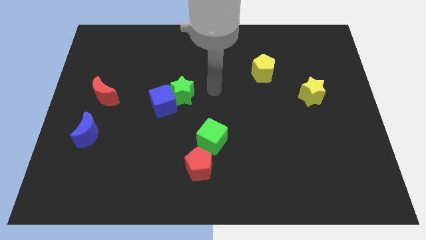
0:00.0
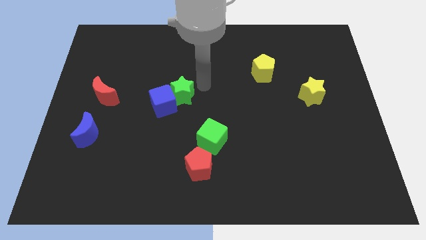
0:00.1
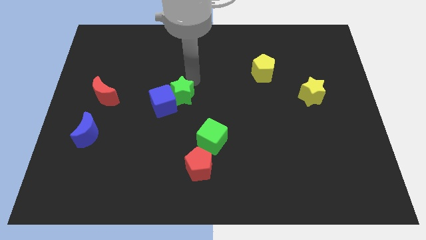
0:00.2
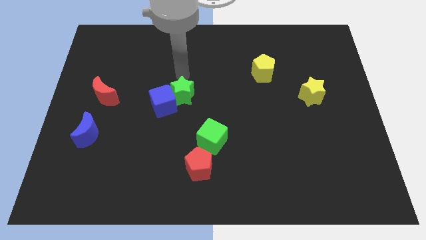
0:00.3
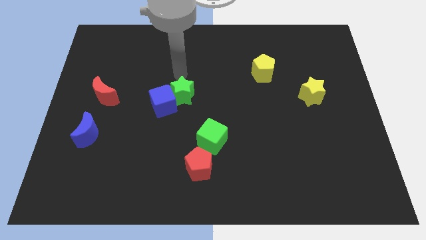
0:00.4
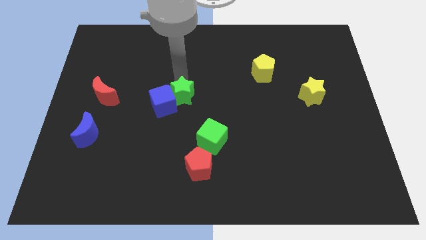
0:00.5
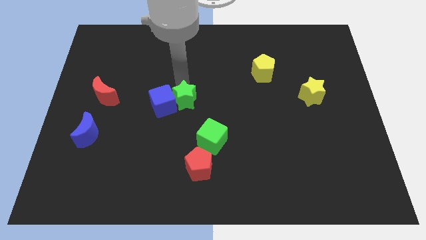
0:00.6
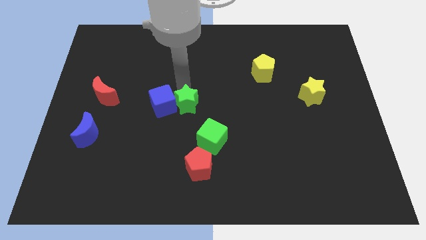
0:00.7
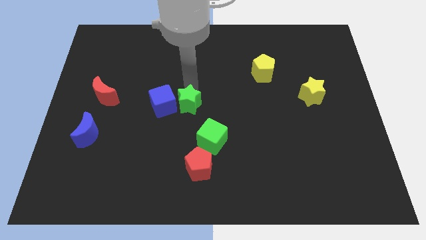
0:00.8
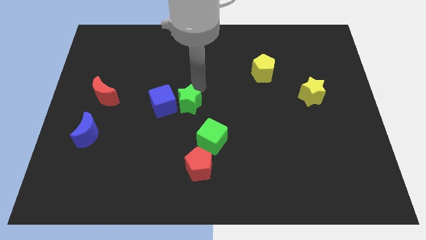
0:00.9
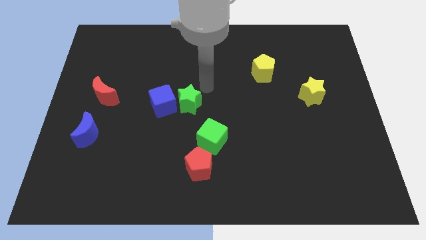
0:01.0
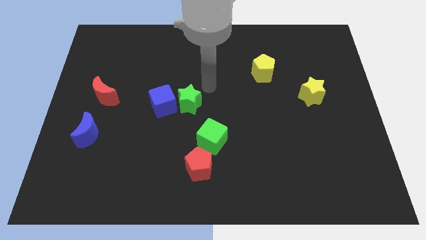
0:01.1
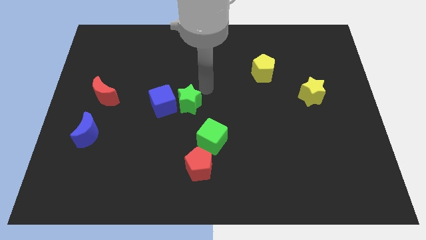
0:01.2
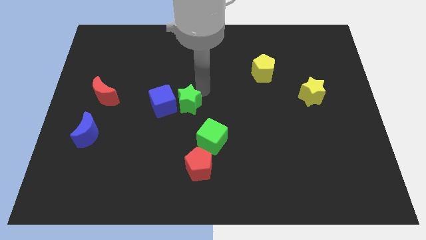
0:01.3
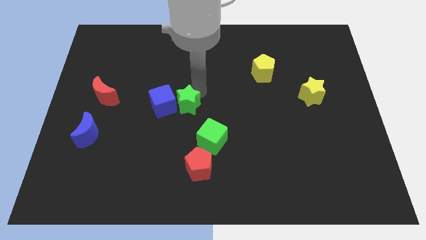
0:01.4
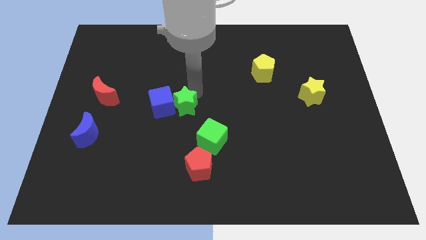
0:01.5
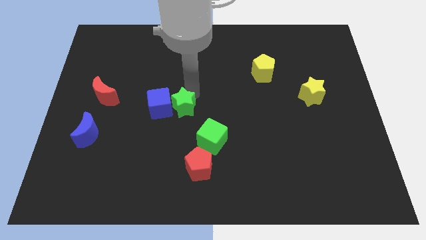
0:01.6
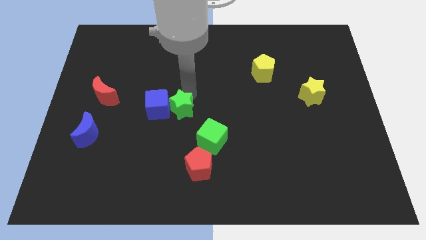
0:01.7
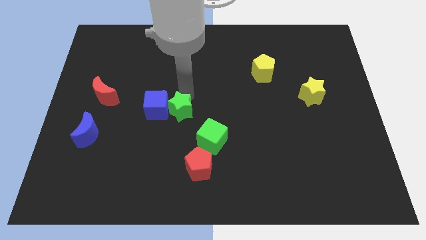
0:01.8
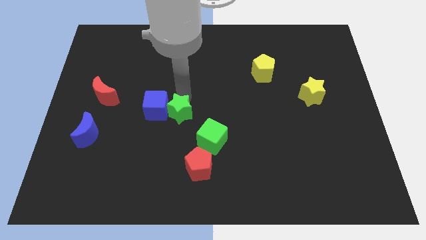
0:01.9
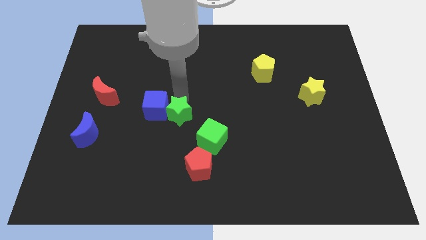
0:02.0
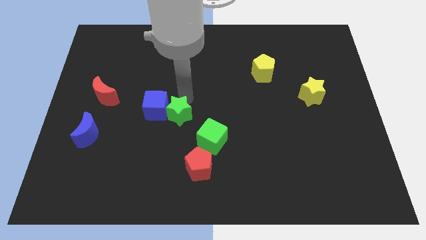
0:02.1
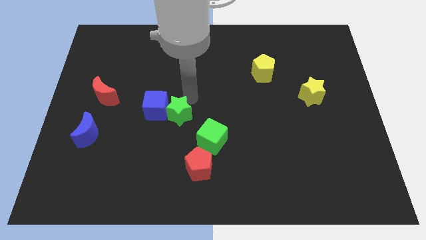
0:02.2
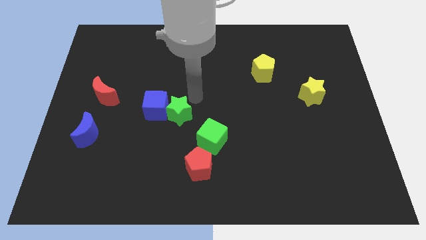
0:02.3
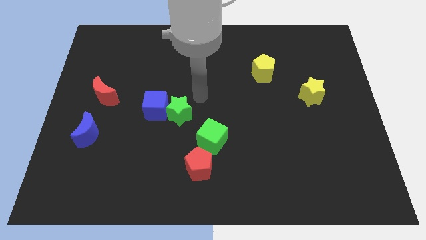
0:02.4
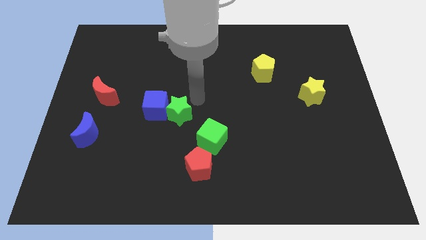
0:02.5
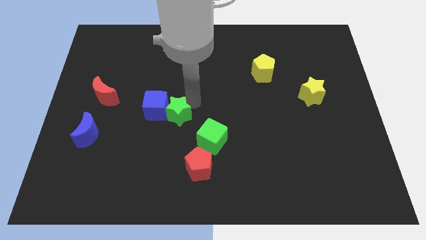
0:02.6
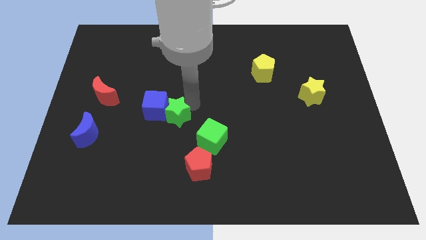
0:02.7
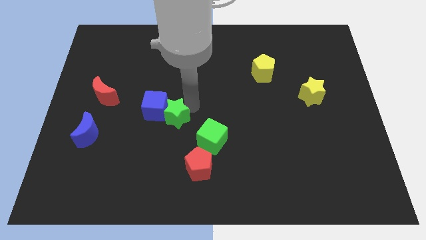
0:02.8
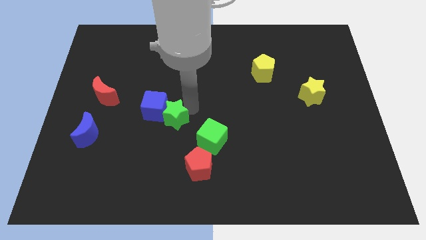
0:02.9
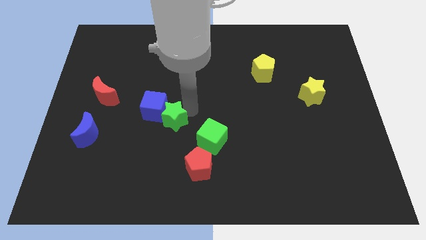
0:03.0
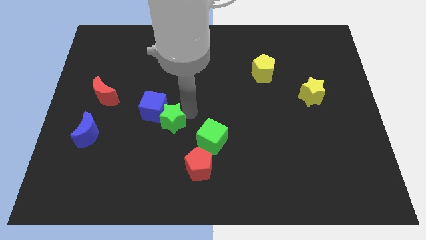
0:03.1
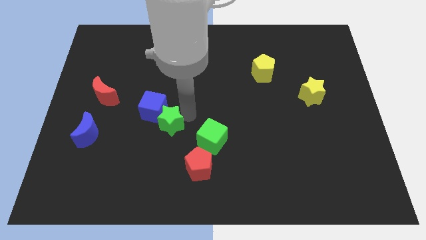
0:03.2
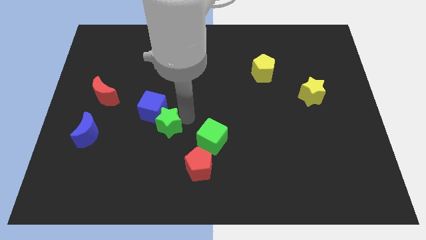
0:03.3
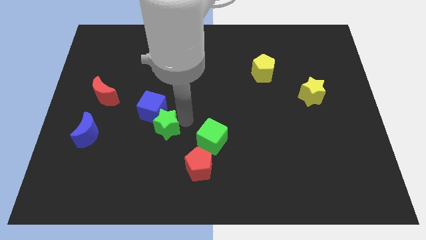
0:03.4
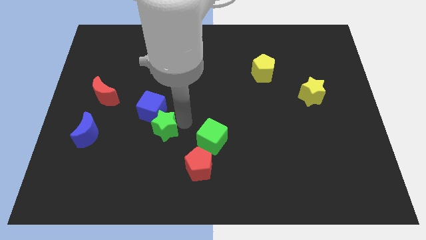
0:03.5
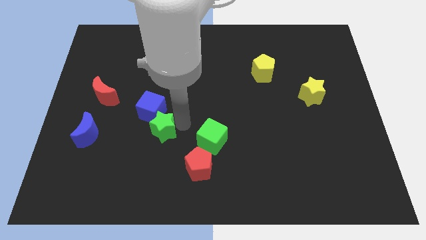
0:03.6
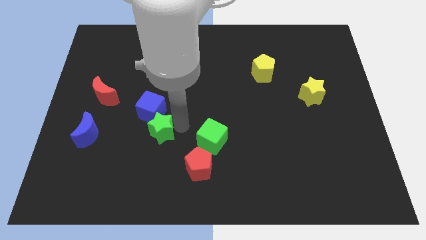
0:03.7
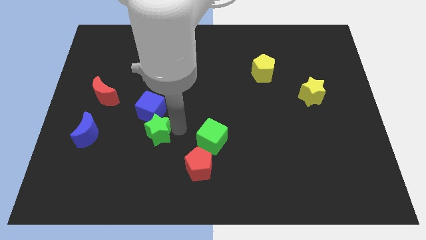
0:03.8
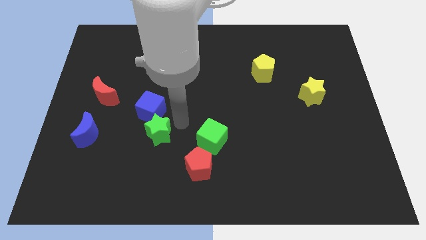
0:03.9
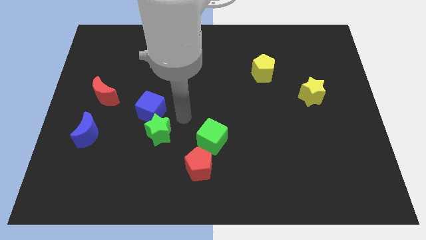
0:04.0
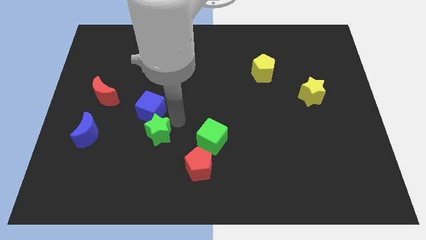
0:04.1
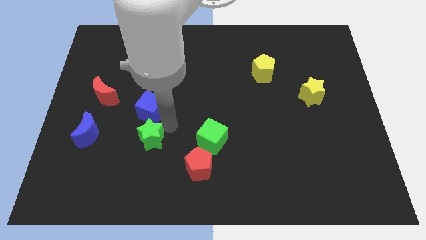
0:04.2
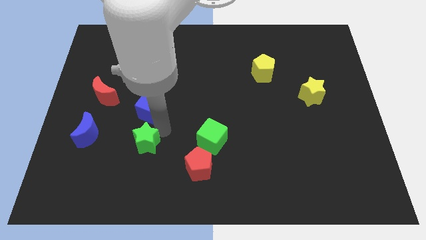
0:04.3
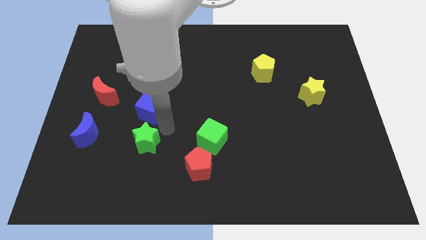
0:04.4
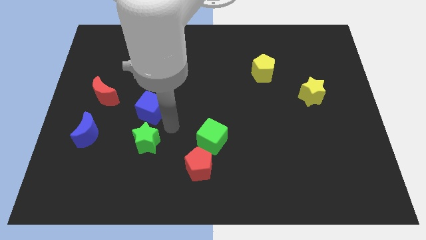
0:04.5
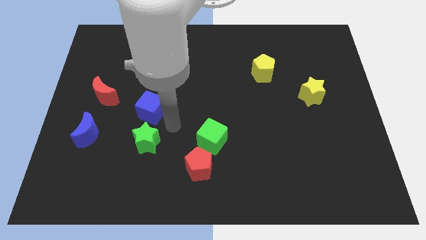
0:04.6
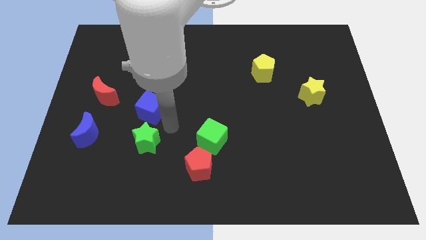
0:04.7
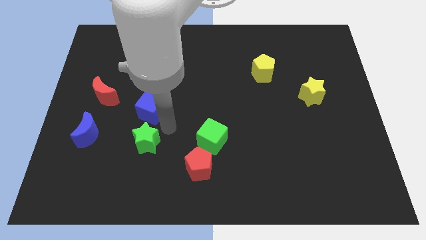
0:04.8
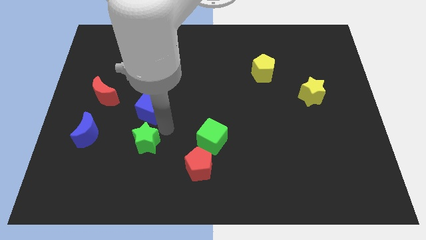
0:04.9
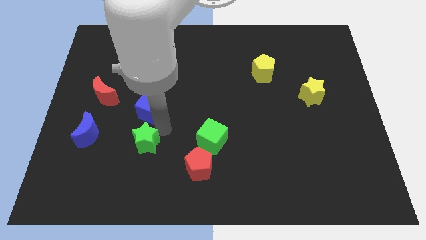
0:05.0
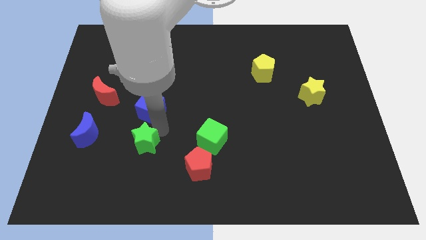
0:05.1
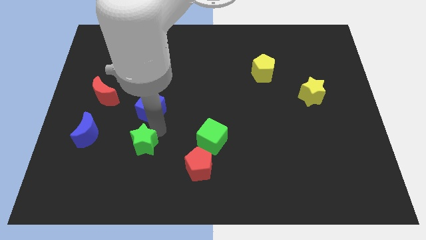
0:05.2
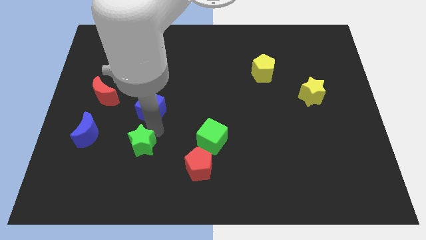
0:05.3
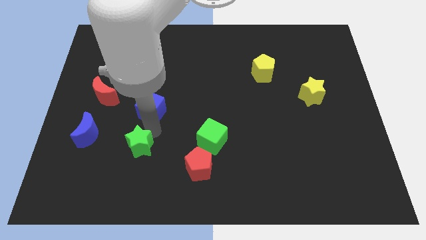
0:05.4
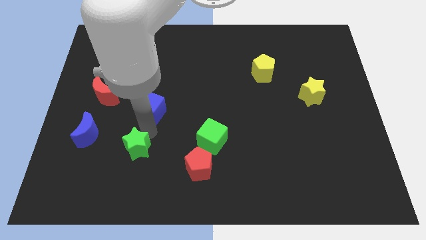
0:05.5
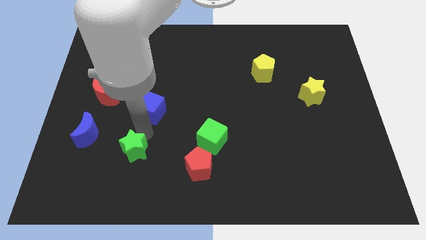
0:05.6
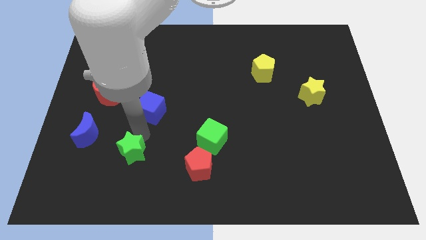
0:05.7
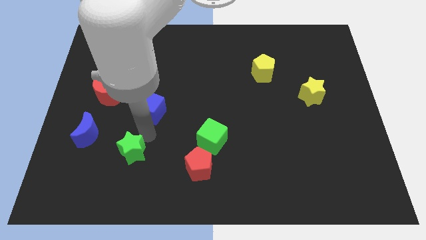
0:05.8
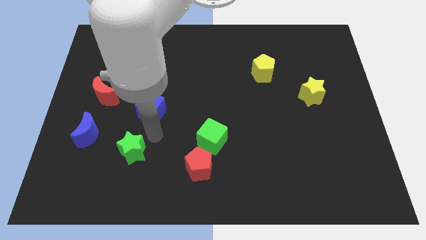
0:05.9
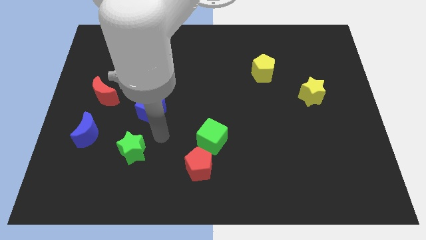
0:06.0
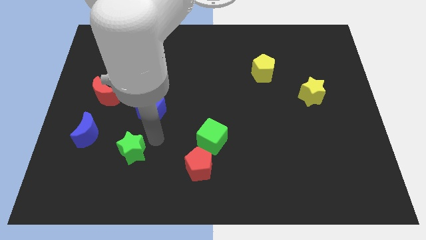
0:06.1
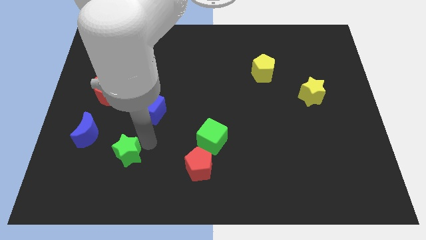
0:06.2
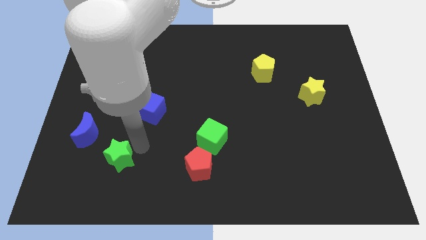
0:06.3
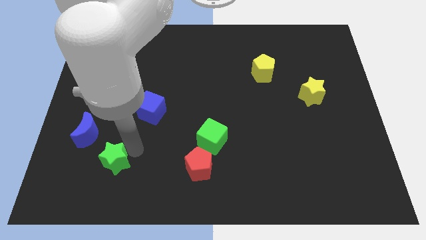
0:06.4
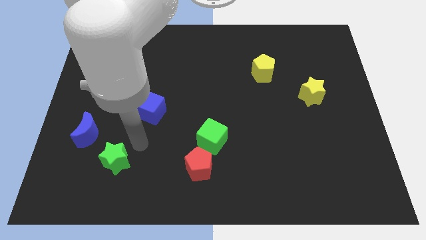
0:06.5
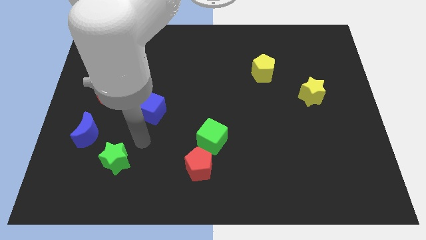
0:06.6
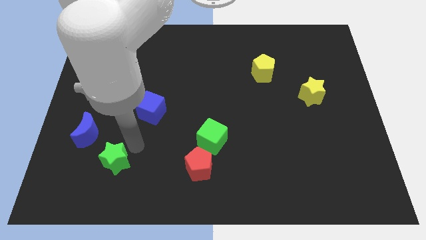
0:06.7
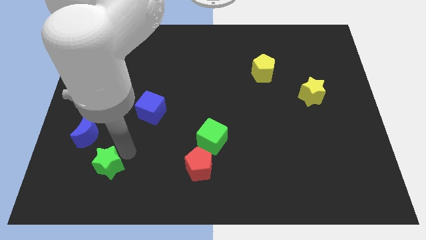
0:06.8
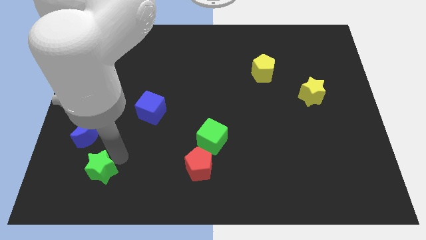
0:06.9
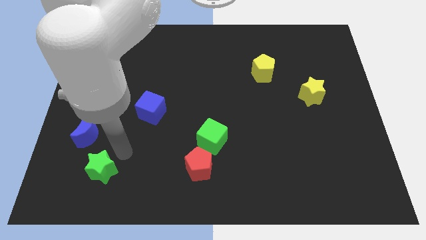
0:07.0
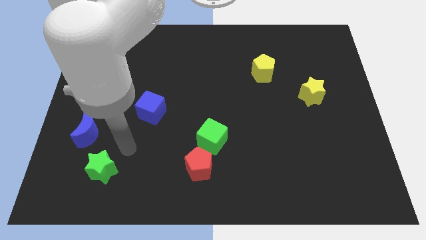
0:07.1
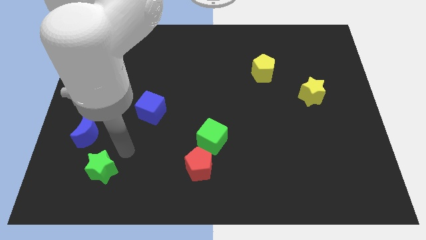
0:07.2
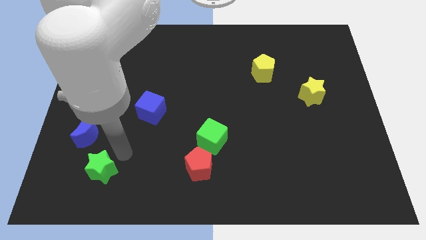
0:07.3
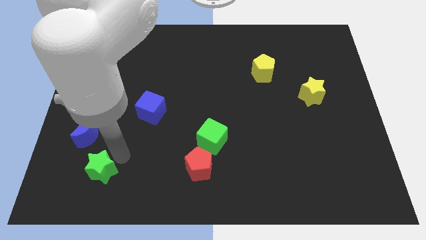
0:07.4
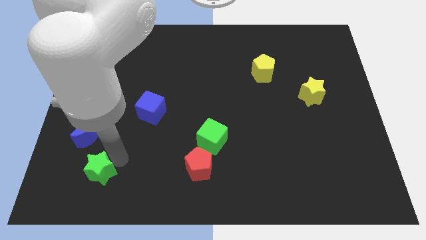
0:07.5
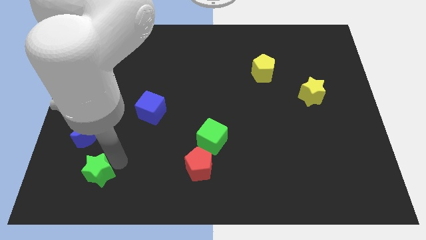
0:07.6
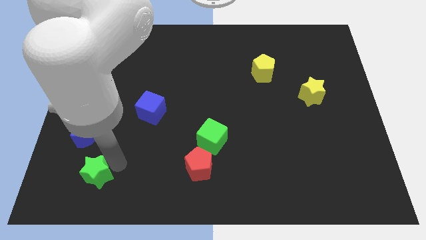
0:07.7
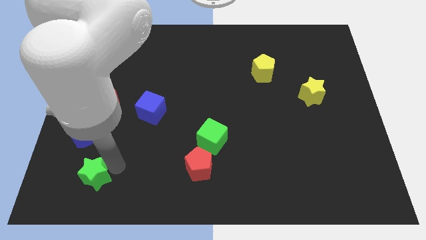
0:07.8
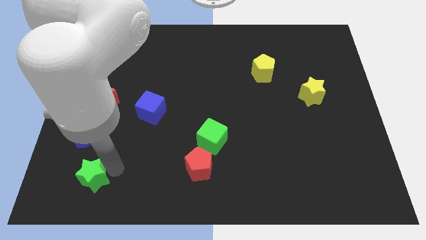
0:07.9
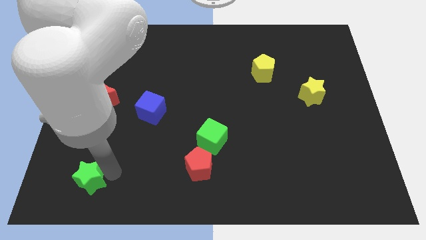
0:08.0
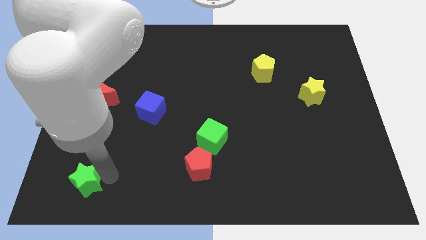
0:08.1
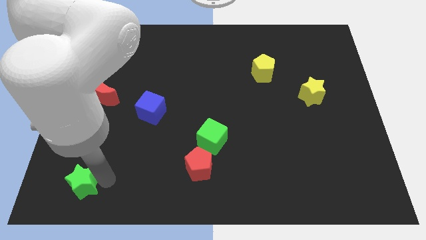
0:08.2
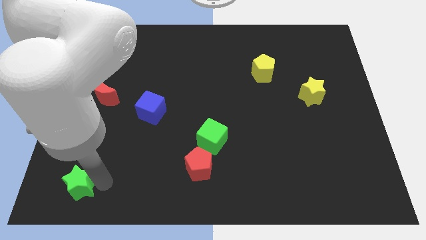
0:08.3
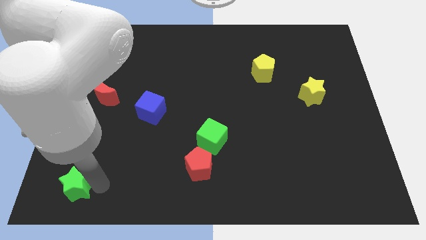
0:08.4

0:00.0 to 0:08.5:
slide the green star to the bottom left of the board
